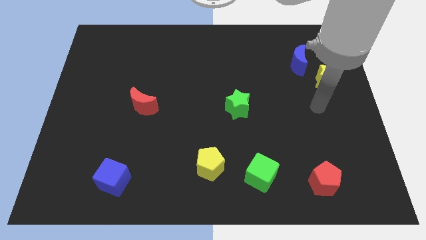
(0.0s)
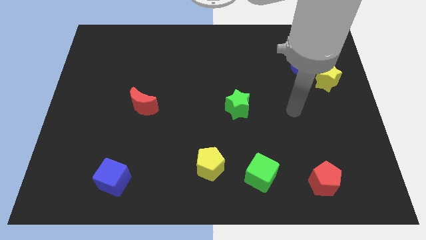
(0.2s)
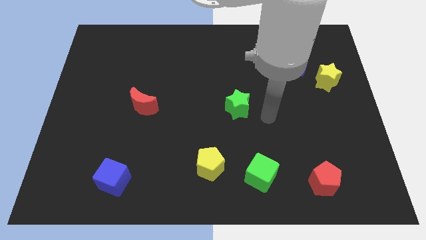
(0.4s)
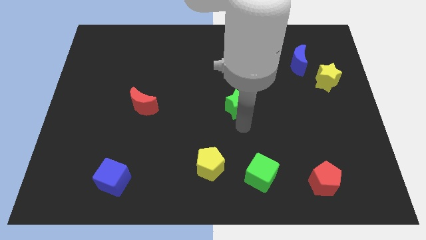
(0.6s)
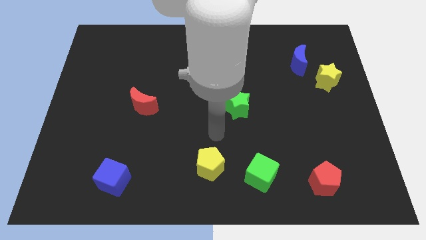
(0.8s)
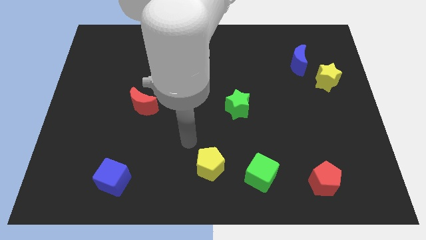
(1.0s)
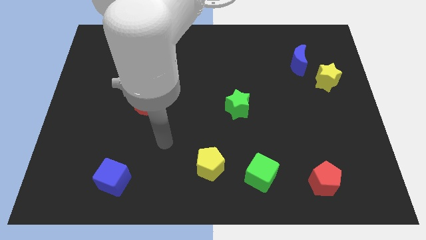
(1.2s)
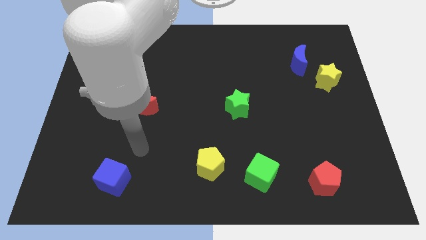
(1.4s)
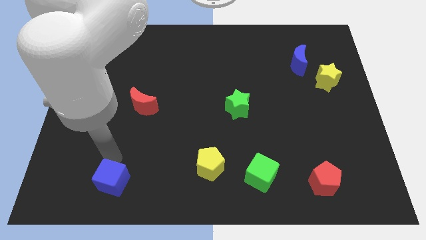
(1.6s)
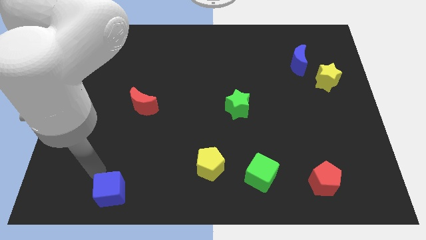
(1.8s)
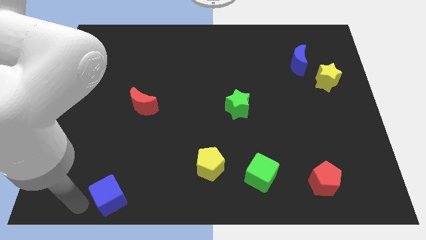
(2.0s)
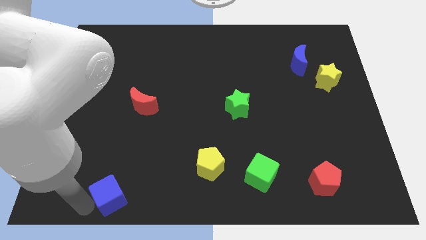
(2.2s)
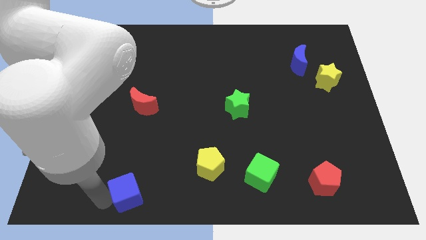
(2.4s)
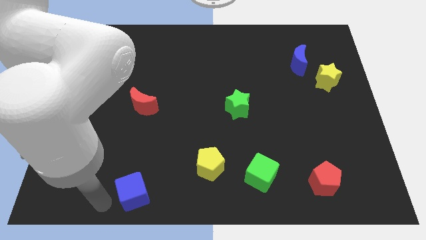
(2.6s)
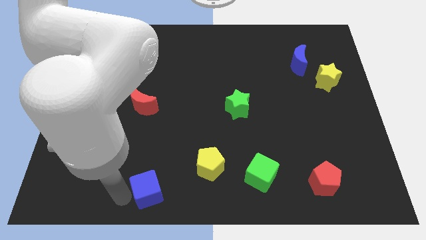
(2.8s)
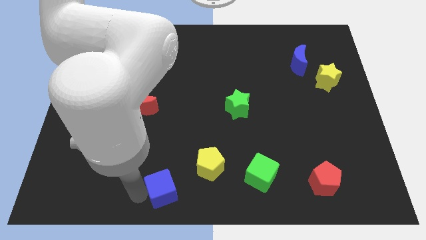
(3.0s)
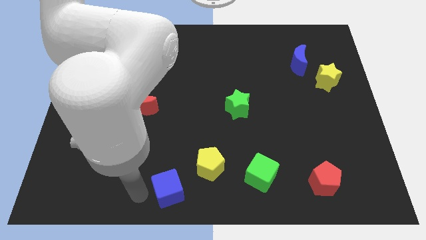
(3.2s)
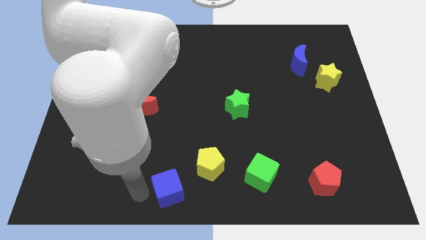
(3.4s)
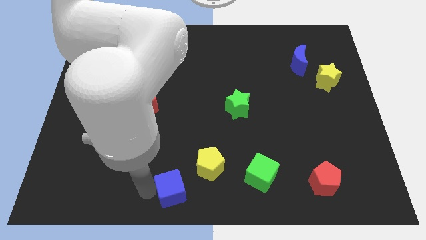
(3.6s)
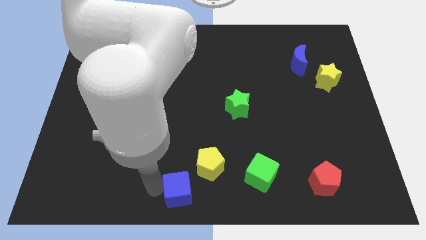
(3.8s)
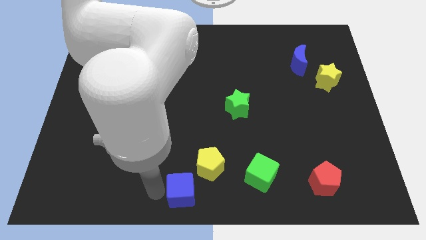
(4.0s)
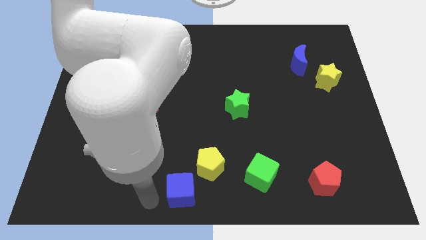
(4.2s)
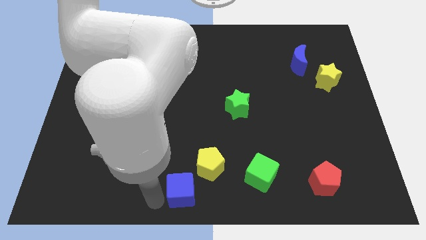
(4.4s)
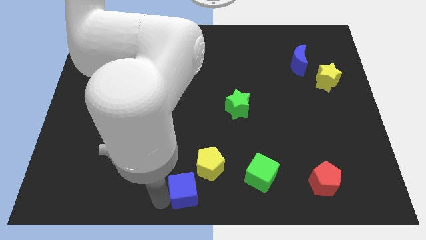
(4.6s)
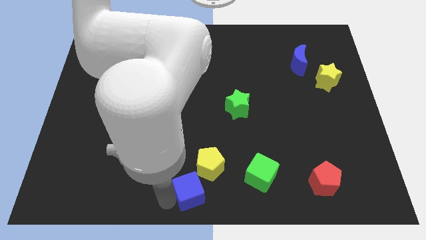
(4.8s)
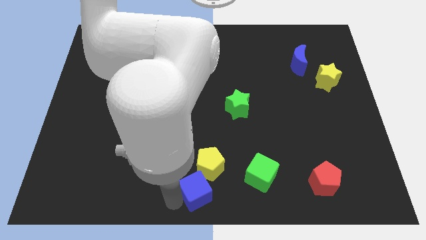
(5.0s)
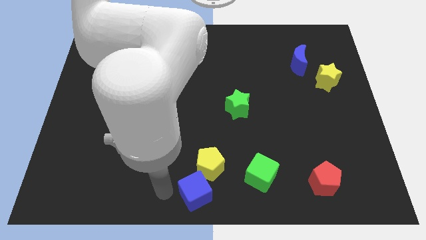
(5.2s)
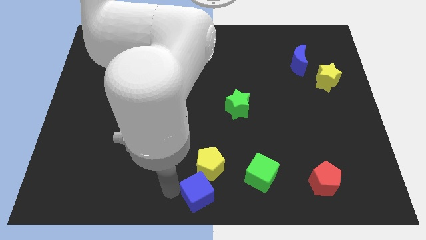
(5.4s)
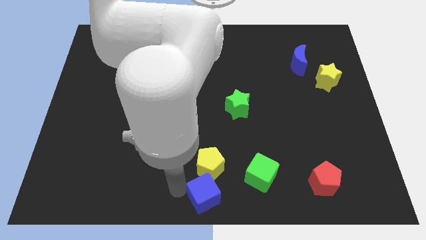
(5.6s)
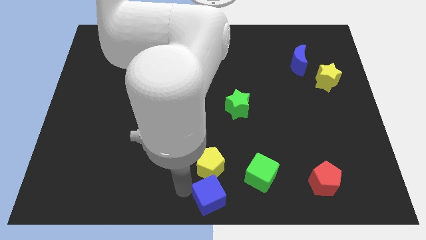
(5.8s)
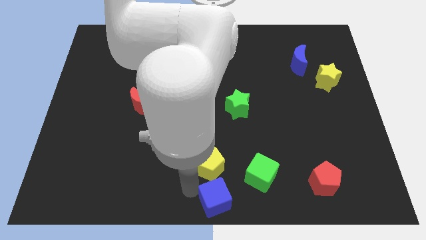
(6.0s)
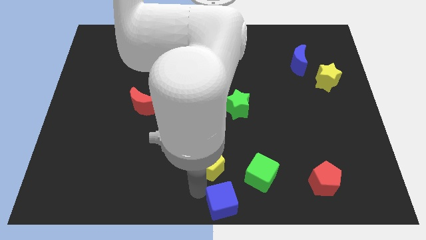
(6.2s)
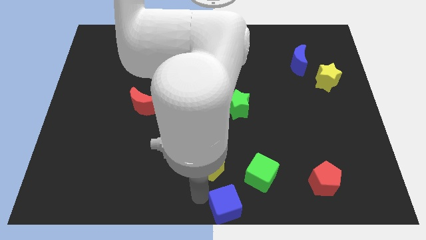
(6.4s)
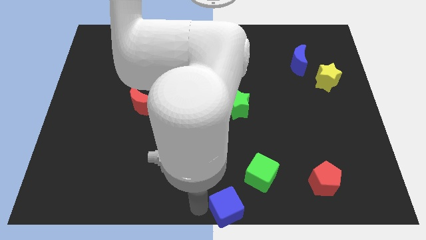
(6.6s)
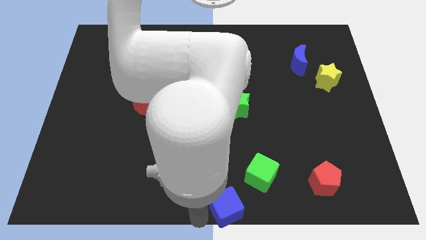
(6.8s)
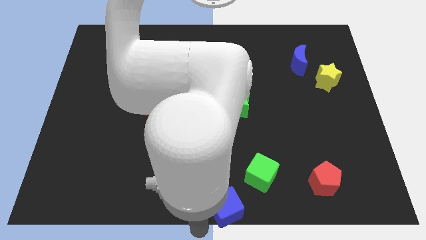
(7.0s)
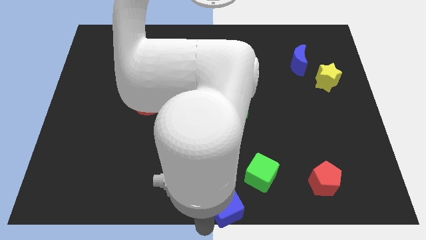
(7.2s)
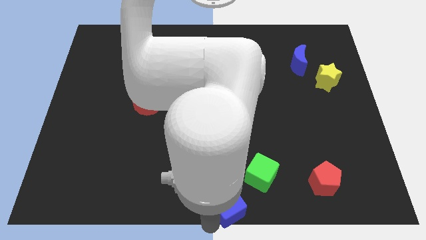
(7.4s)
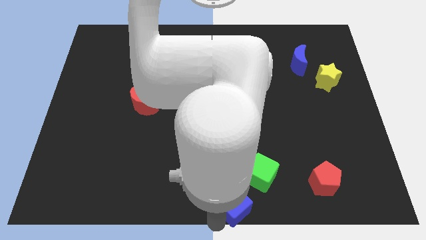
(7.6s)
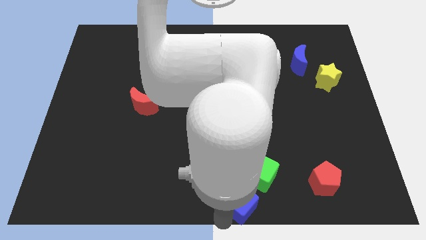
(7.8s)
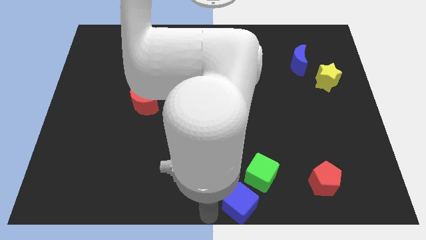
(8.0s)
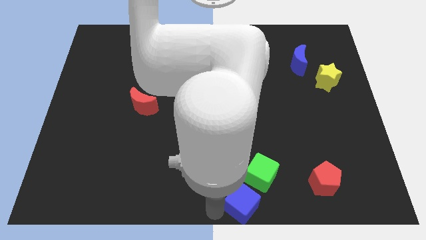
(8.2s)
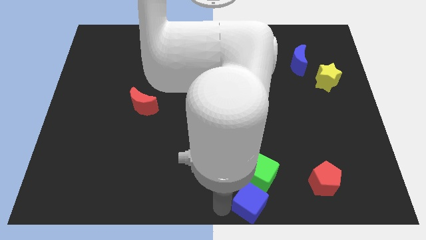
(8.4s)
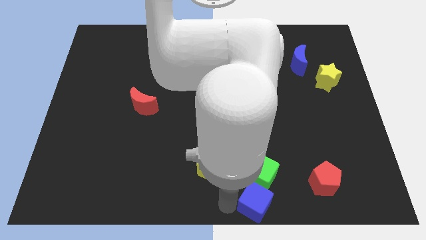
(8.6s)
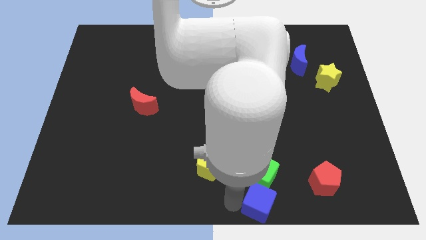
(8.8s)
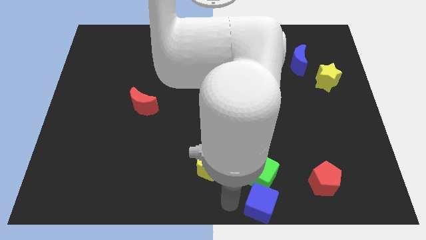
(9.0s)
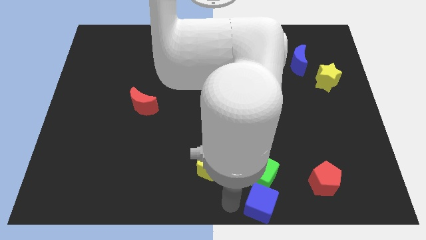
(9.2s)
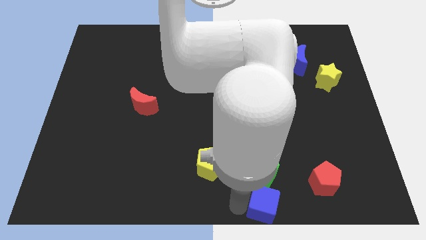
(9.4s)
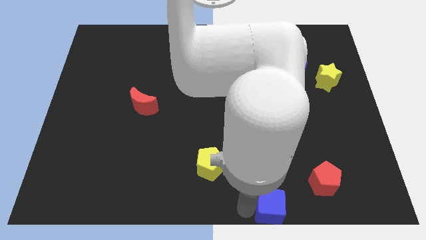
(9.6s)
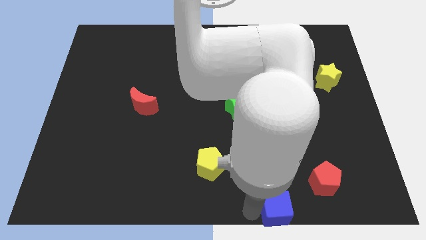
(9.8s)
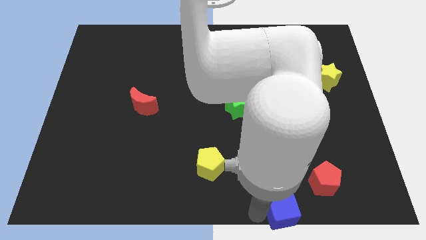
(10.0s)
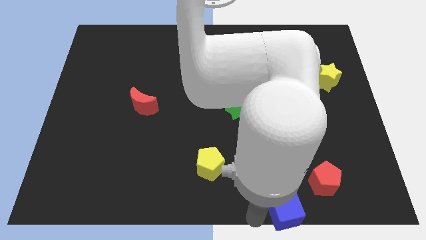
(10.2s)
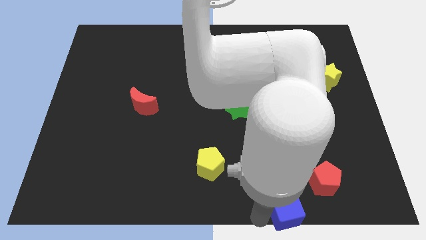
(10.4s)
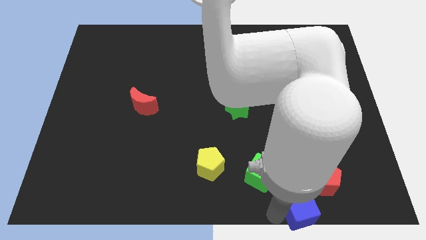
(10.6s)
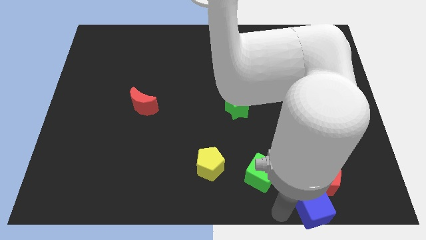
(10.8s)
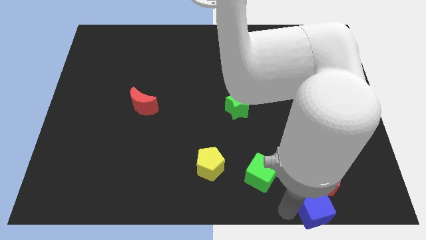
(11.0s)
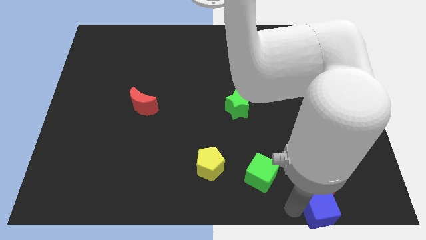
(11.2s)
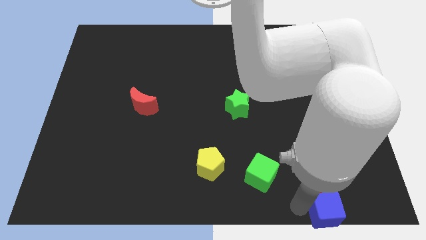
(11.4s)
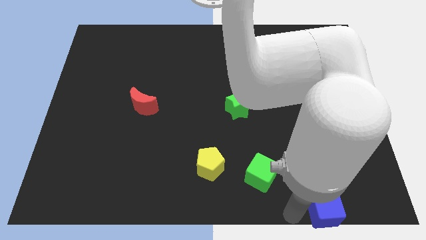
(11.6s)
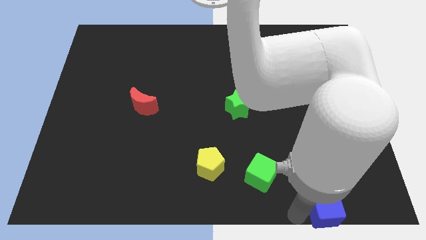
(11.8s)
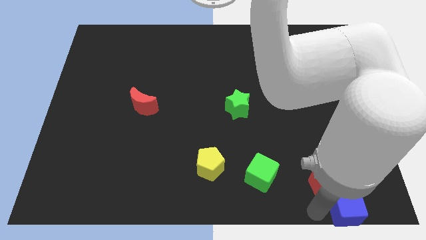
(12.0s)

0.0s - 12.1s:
push the blue cube to the bottom right of the board

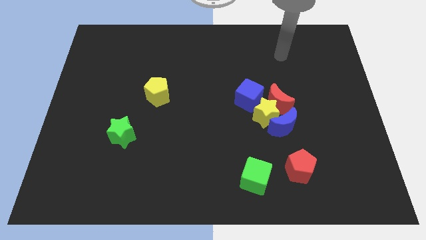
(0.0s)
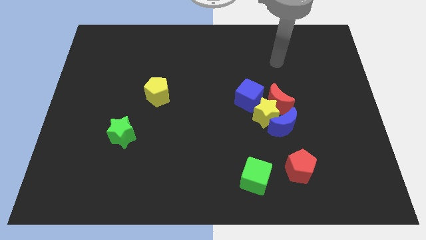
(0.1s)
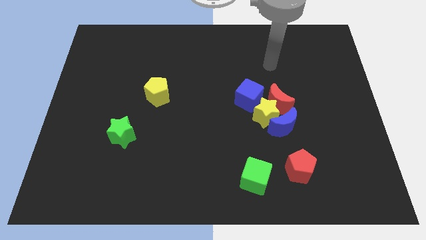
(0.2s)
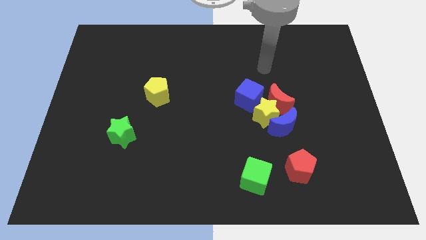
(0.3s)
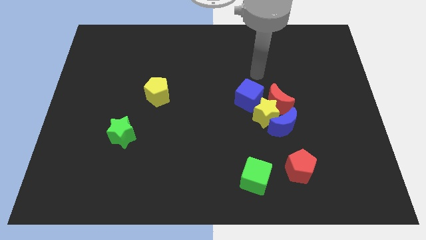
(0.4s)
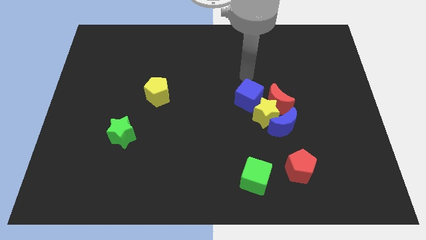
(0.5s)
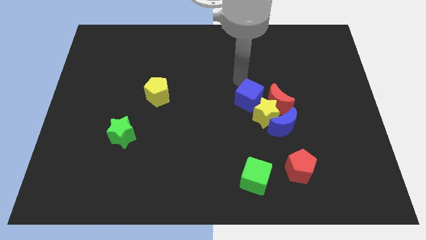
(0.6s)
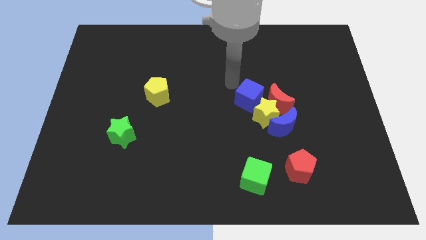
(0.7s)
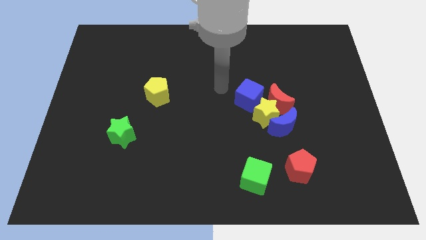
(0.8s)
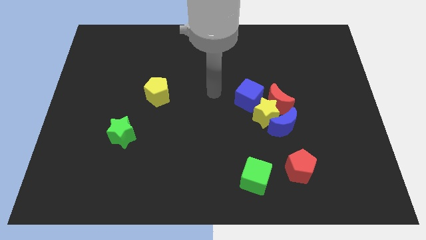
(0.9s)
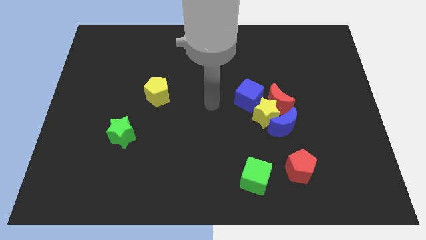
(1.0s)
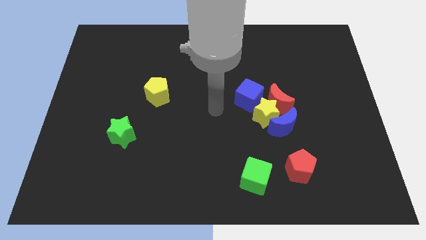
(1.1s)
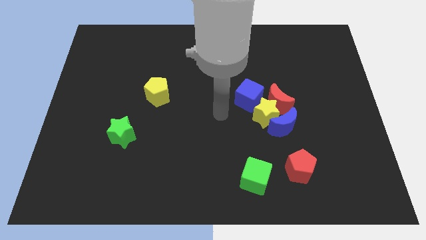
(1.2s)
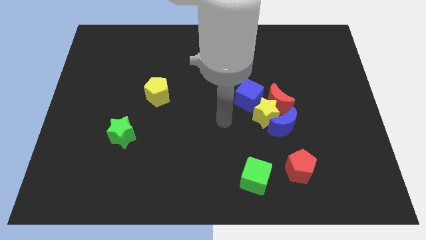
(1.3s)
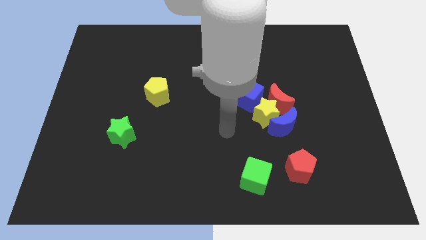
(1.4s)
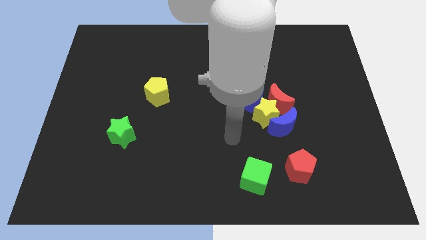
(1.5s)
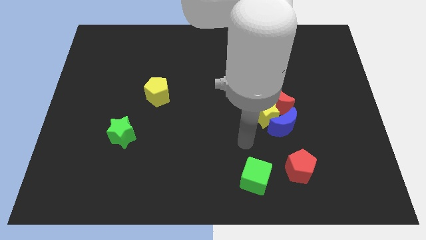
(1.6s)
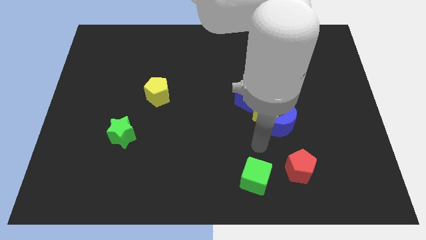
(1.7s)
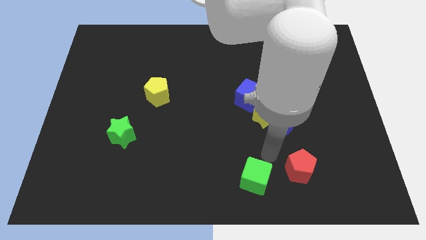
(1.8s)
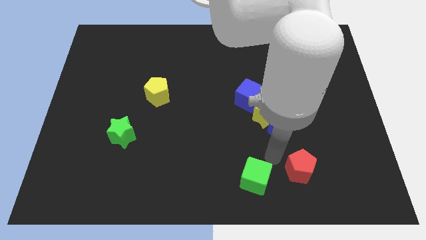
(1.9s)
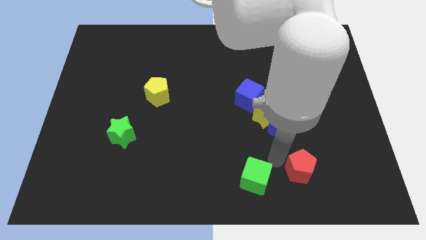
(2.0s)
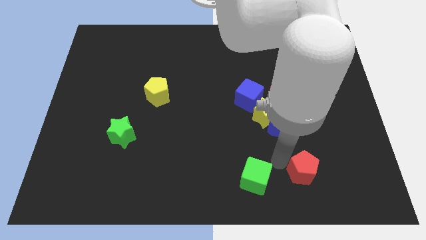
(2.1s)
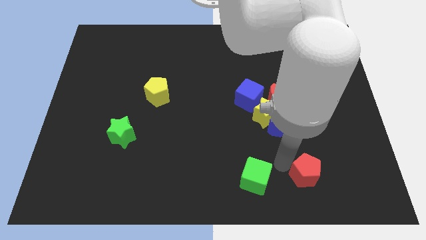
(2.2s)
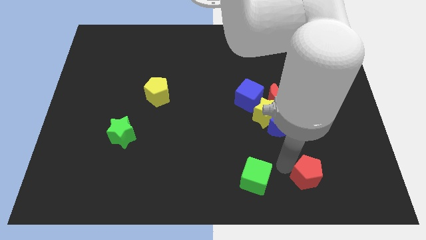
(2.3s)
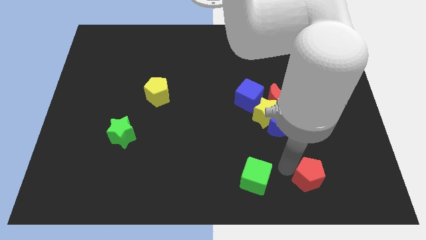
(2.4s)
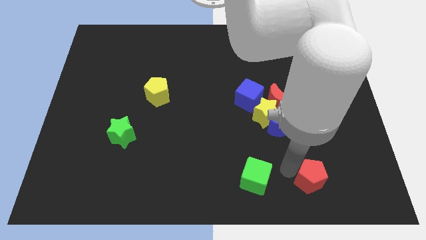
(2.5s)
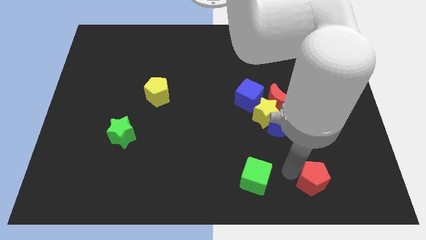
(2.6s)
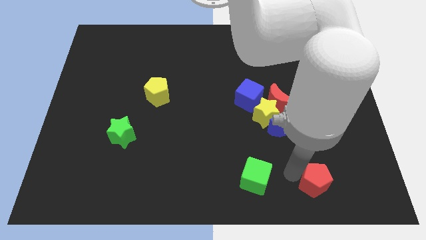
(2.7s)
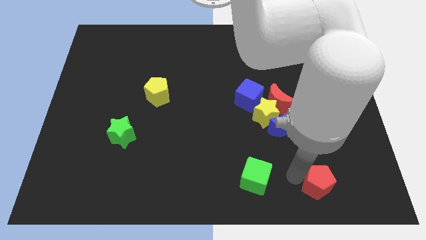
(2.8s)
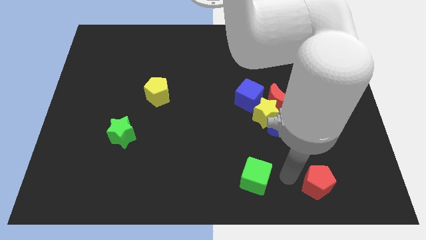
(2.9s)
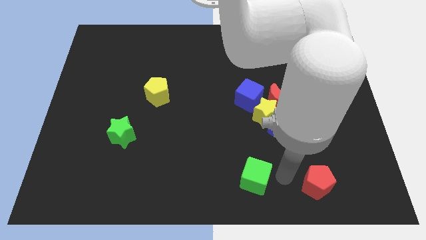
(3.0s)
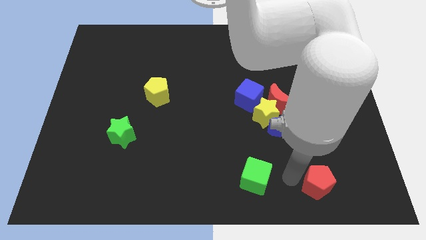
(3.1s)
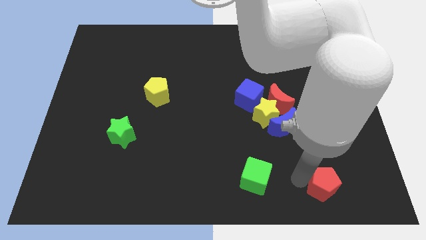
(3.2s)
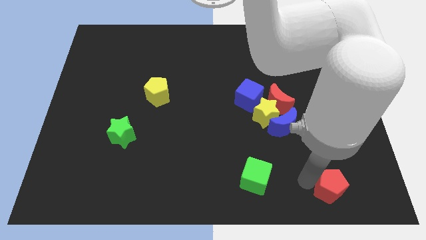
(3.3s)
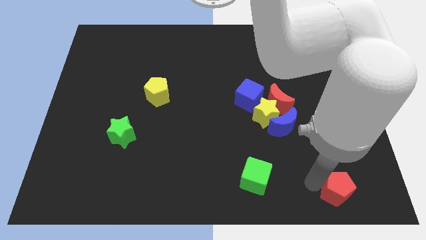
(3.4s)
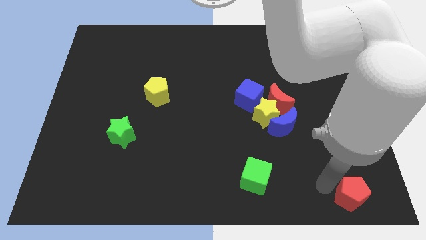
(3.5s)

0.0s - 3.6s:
put the red pentagon to the lower right corner
